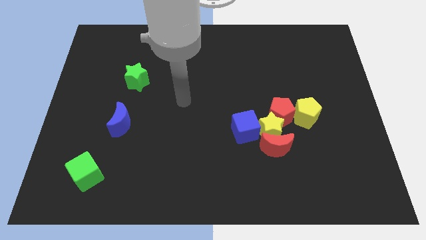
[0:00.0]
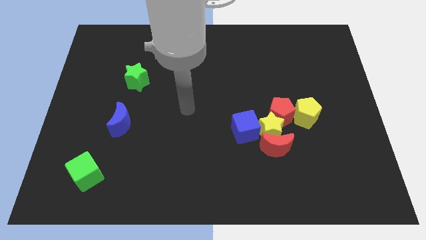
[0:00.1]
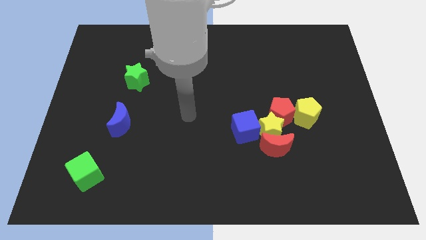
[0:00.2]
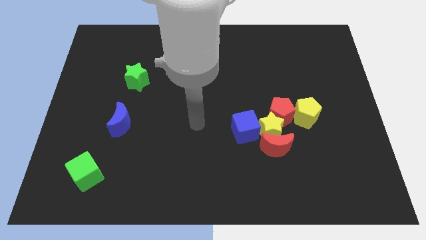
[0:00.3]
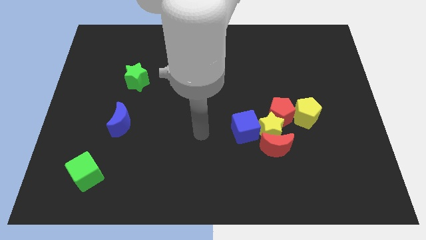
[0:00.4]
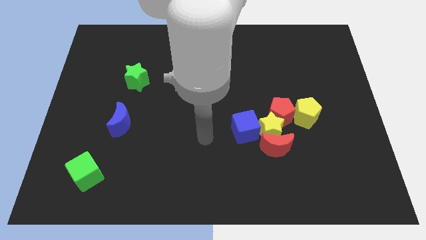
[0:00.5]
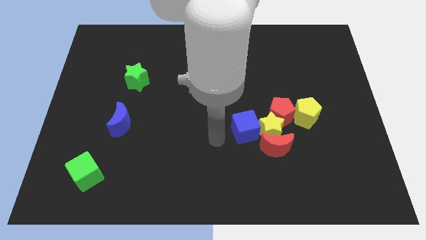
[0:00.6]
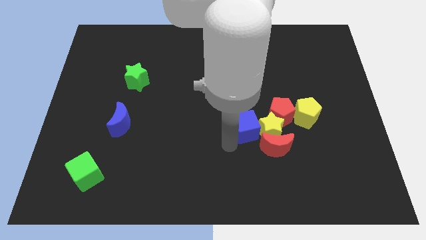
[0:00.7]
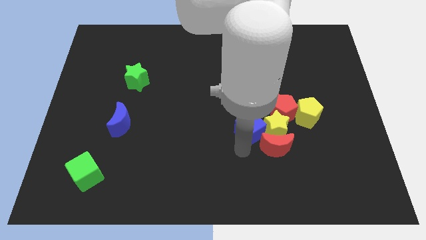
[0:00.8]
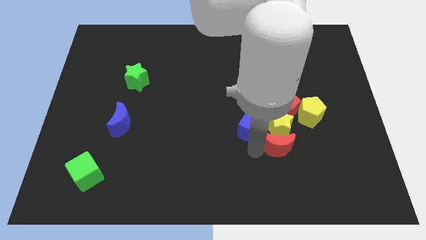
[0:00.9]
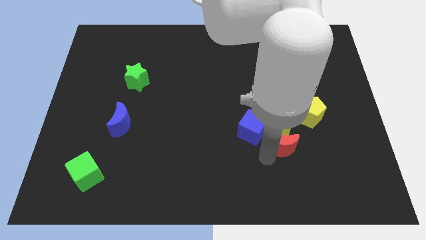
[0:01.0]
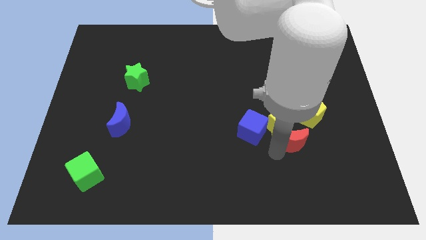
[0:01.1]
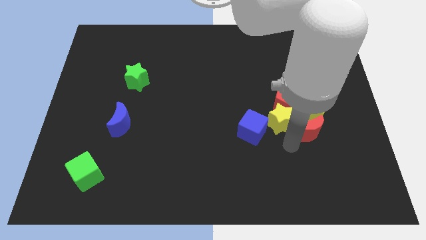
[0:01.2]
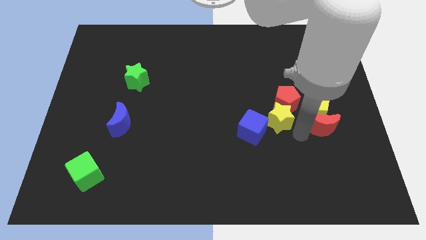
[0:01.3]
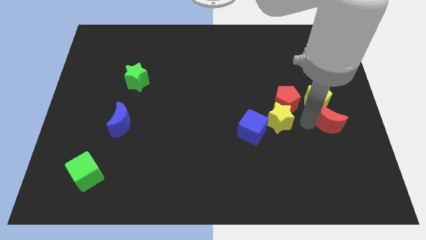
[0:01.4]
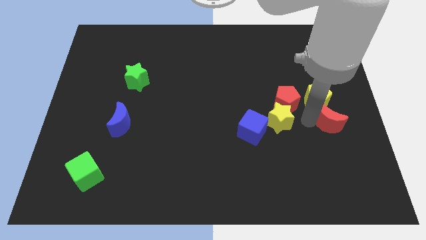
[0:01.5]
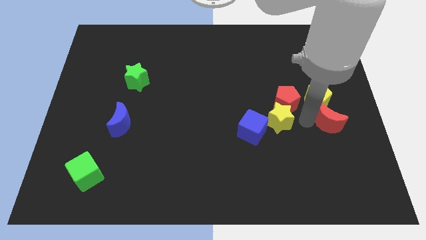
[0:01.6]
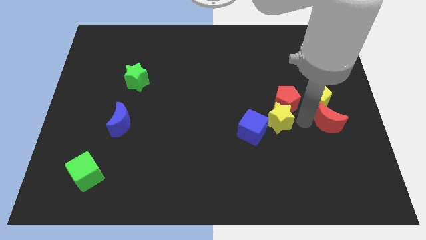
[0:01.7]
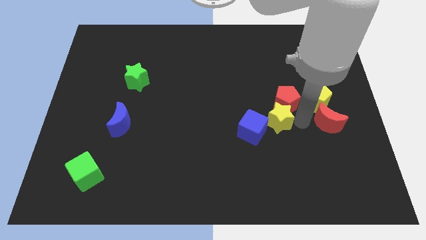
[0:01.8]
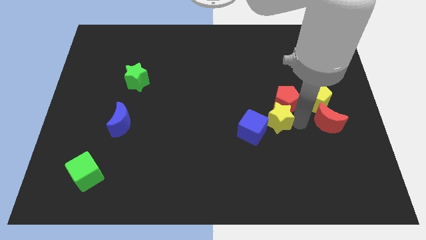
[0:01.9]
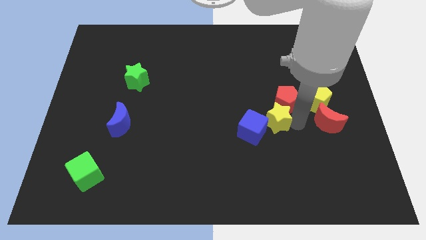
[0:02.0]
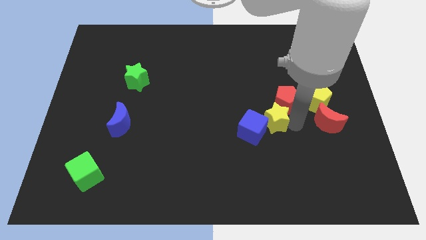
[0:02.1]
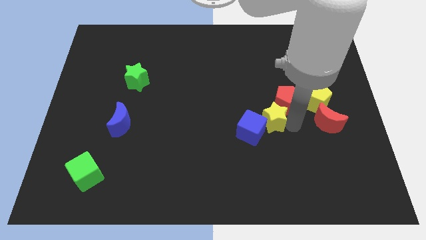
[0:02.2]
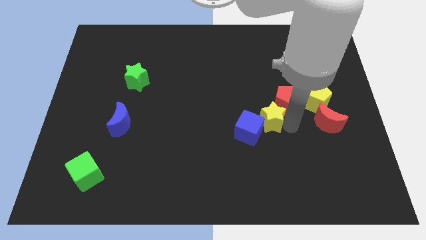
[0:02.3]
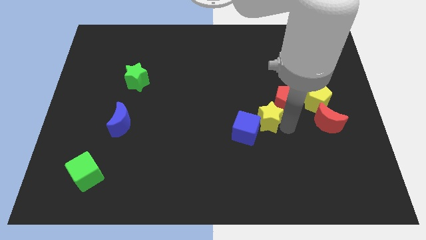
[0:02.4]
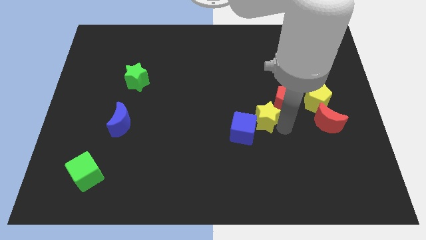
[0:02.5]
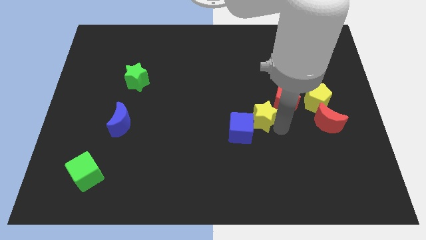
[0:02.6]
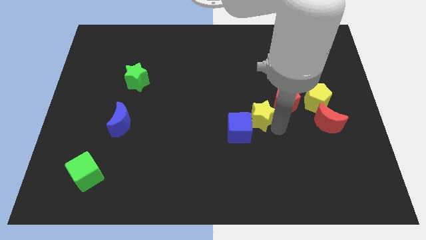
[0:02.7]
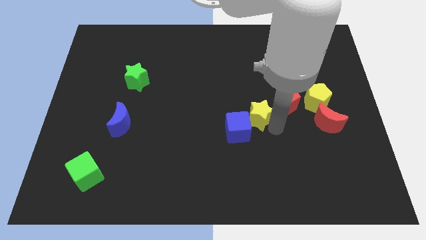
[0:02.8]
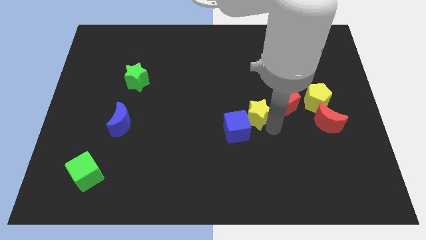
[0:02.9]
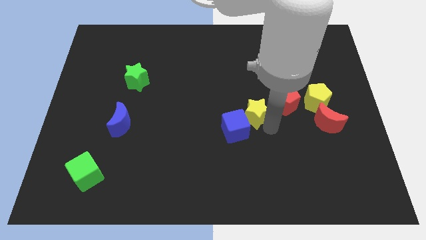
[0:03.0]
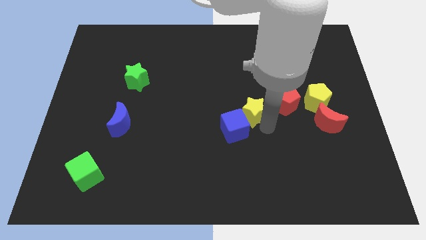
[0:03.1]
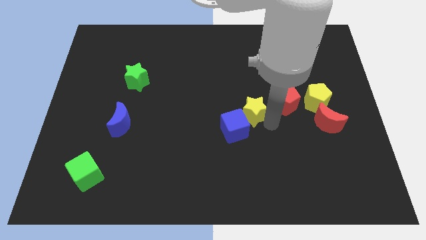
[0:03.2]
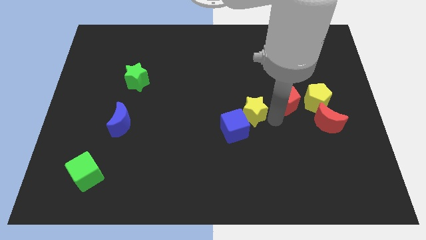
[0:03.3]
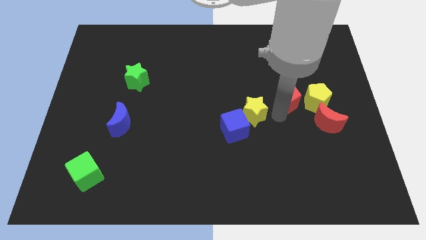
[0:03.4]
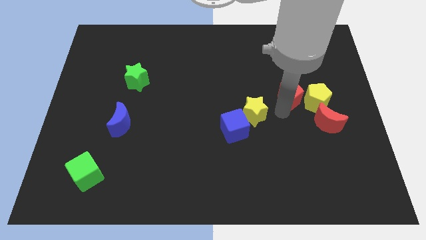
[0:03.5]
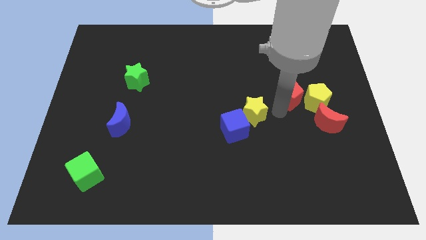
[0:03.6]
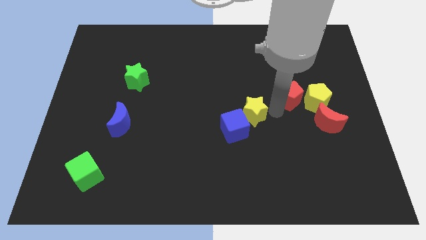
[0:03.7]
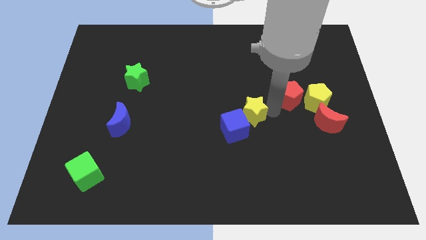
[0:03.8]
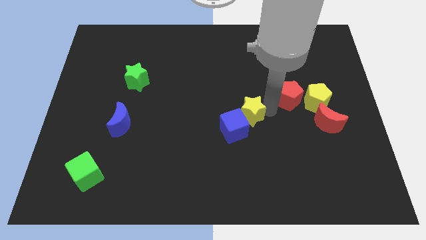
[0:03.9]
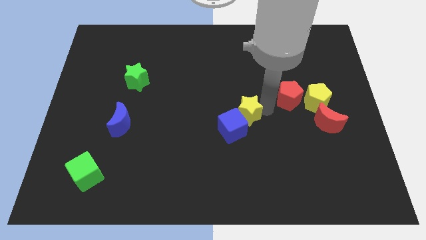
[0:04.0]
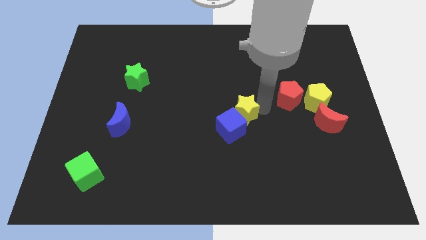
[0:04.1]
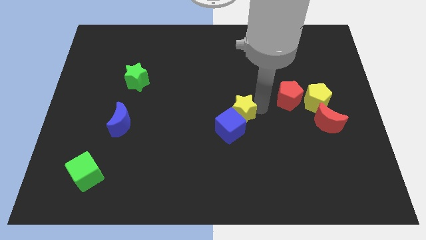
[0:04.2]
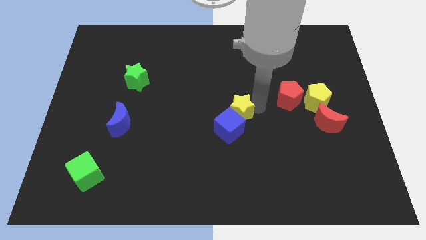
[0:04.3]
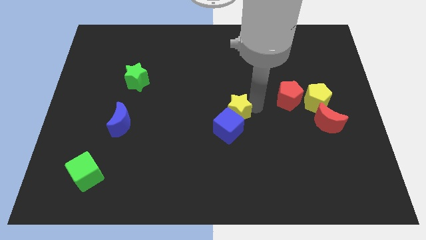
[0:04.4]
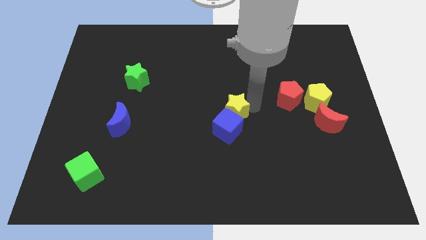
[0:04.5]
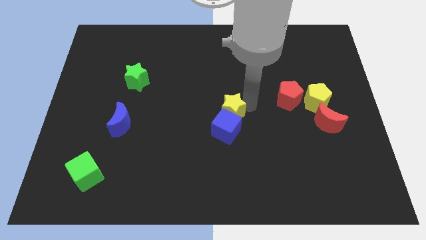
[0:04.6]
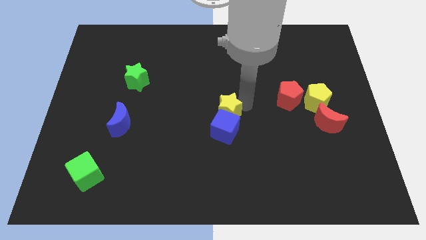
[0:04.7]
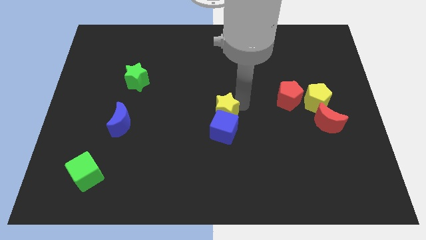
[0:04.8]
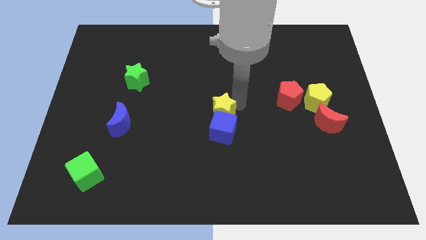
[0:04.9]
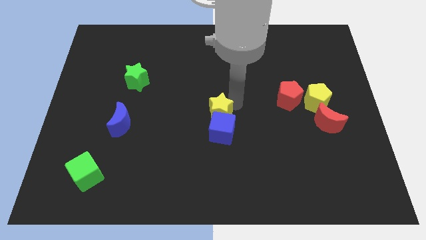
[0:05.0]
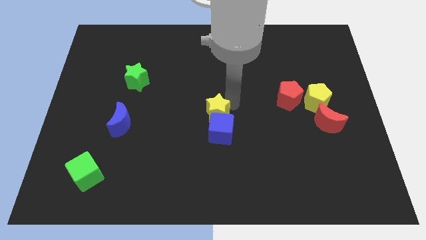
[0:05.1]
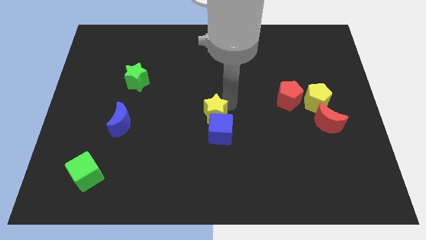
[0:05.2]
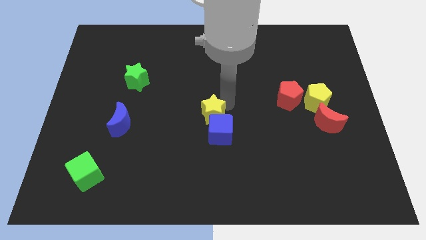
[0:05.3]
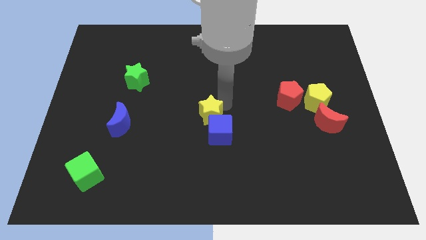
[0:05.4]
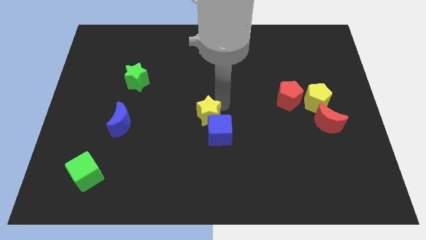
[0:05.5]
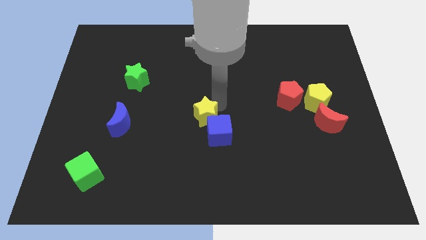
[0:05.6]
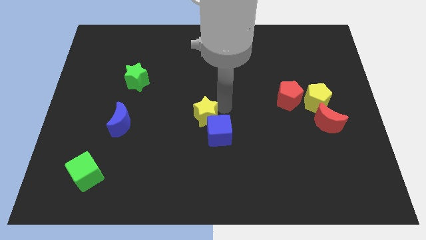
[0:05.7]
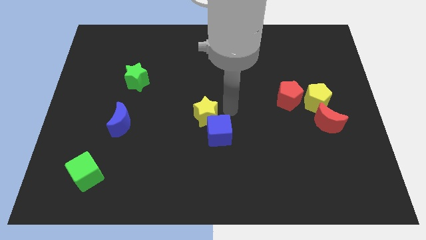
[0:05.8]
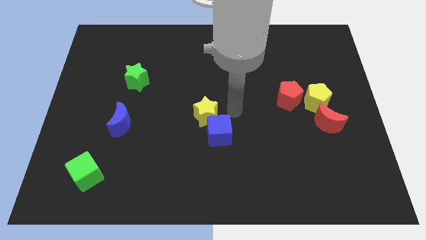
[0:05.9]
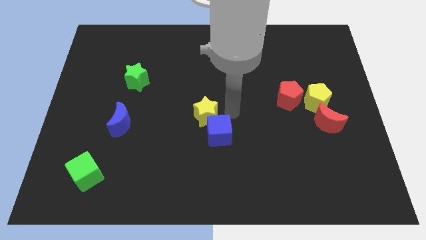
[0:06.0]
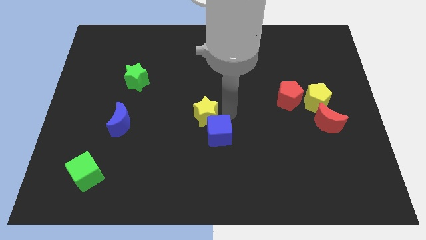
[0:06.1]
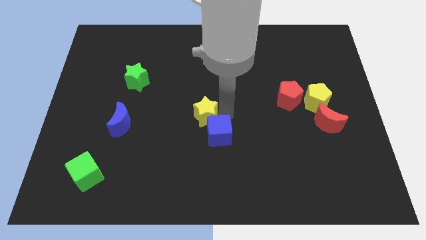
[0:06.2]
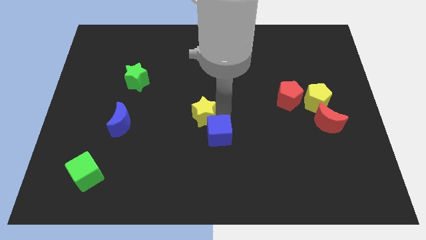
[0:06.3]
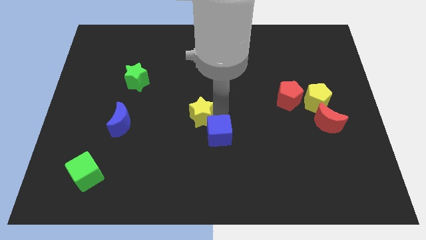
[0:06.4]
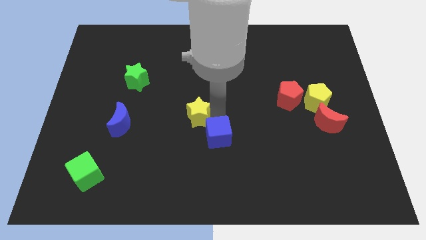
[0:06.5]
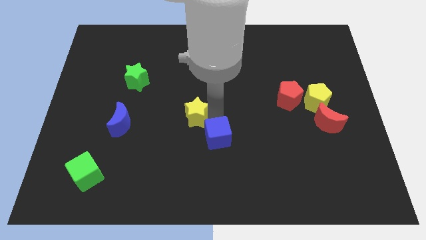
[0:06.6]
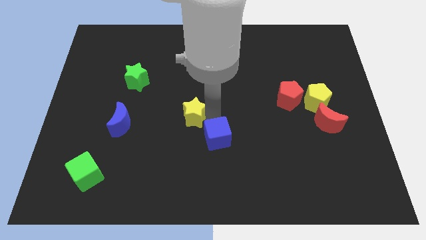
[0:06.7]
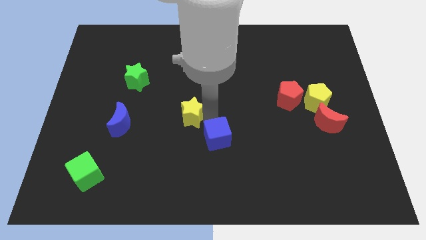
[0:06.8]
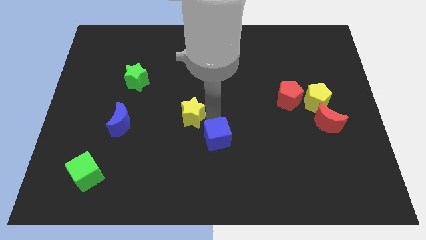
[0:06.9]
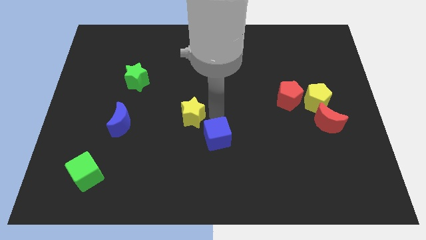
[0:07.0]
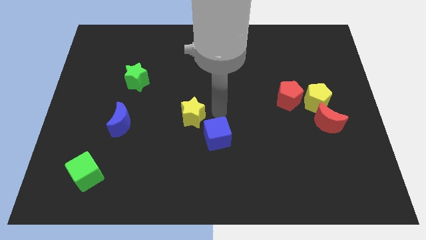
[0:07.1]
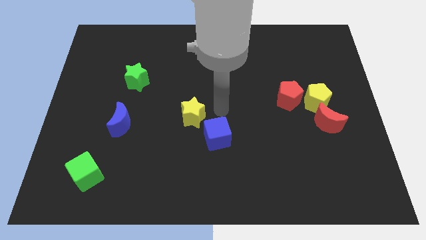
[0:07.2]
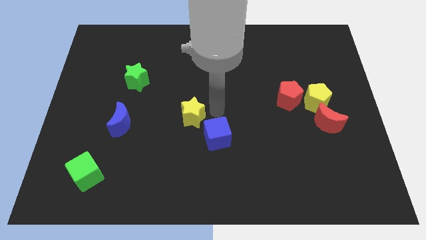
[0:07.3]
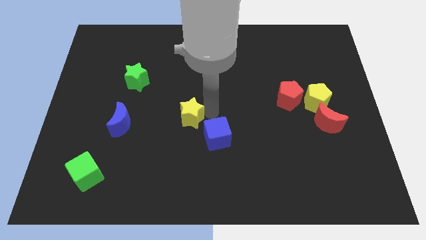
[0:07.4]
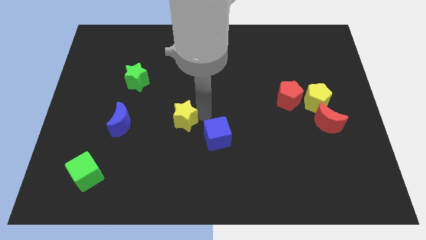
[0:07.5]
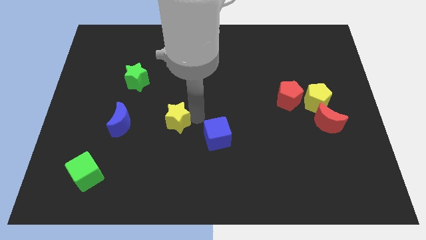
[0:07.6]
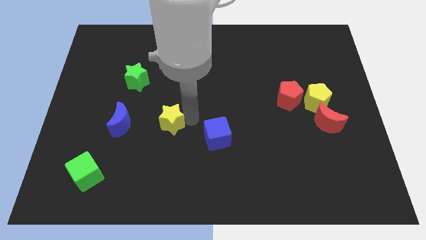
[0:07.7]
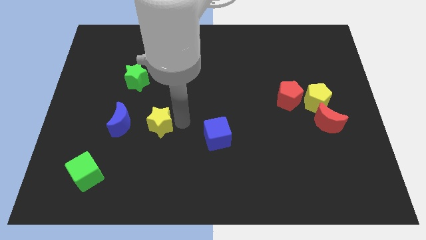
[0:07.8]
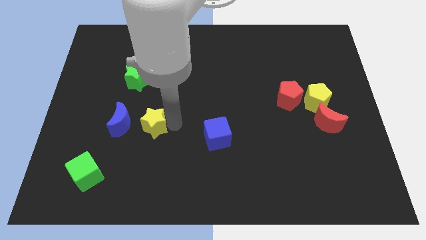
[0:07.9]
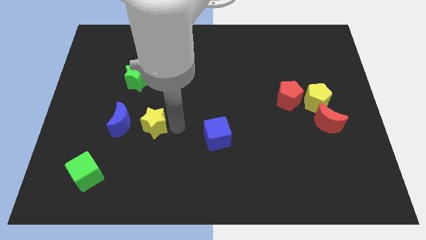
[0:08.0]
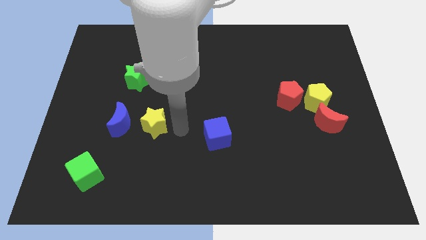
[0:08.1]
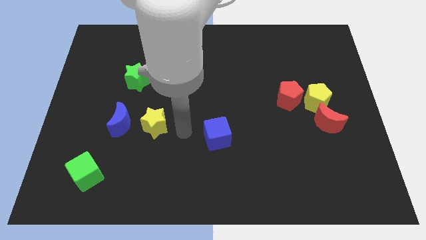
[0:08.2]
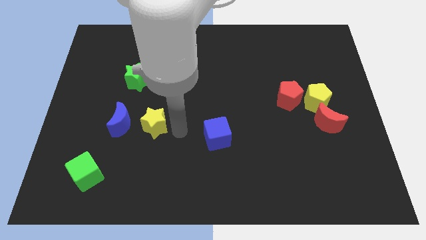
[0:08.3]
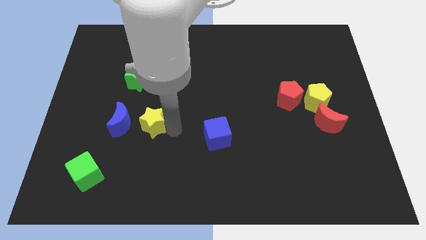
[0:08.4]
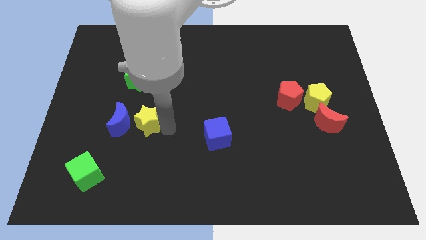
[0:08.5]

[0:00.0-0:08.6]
put the yellow star next to the blue moon
